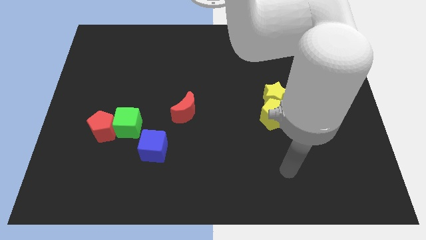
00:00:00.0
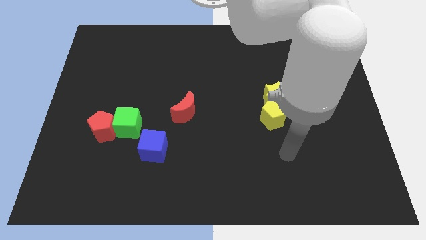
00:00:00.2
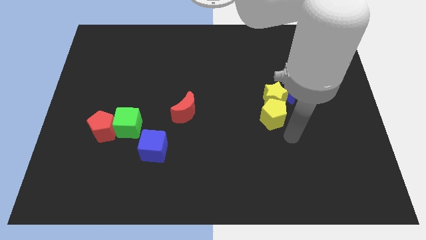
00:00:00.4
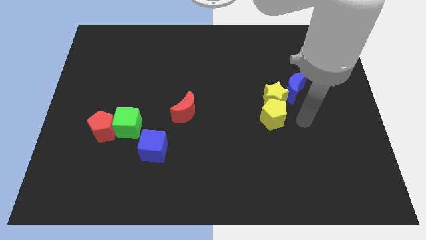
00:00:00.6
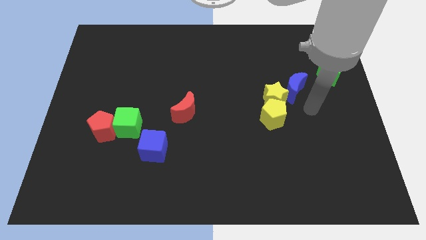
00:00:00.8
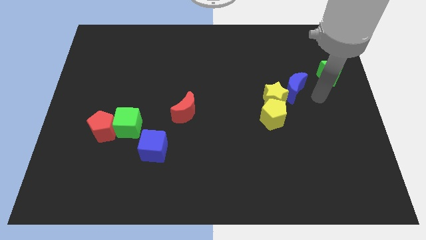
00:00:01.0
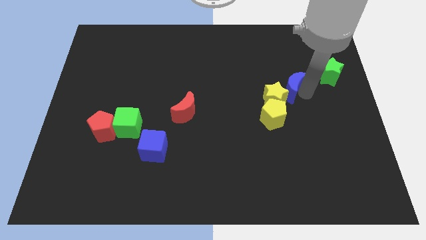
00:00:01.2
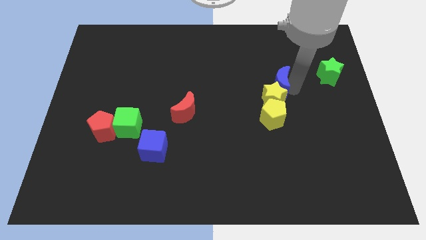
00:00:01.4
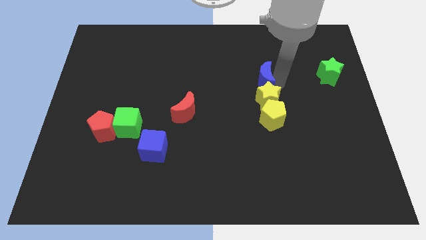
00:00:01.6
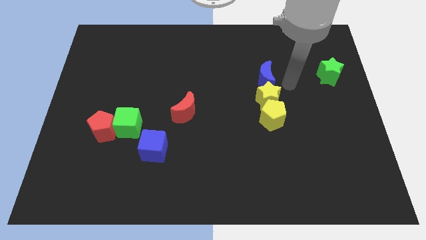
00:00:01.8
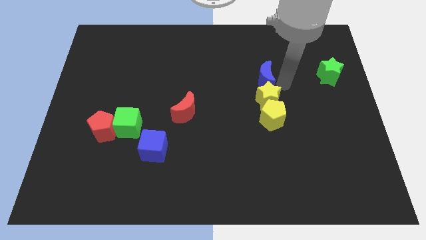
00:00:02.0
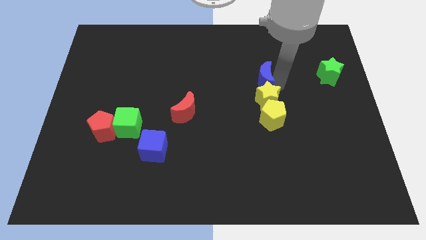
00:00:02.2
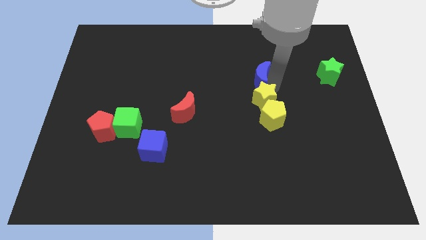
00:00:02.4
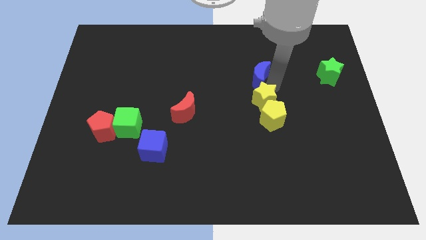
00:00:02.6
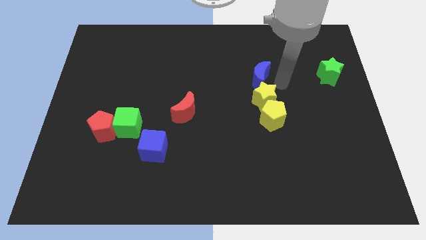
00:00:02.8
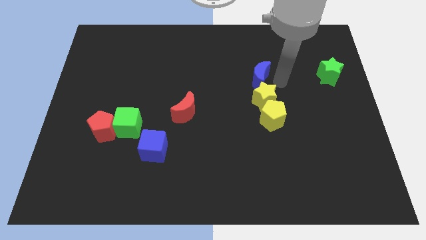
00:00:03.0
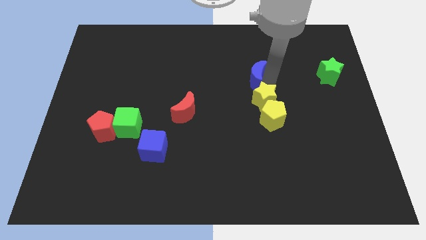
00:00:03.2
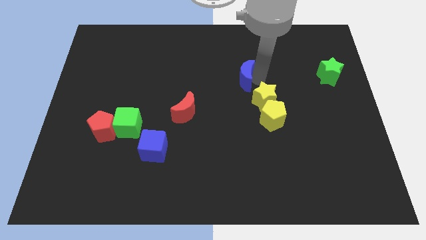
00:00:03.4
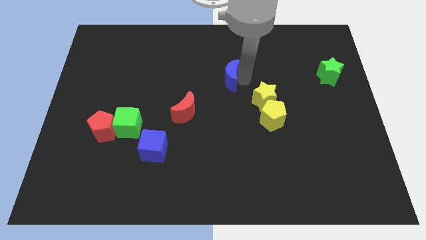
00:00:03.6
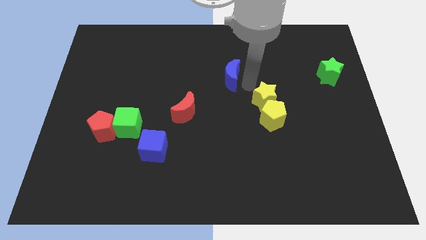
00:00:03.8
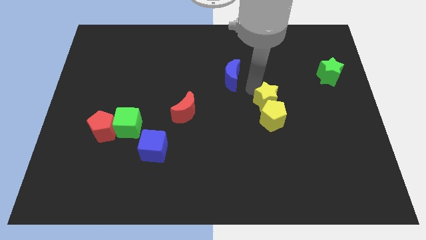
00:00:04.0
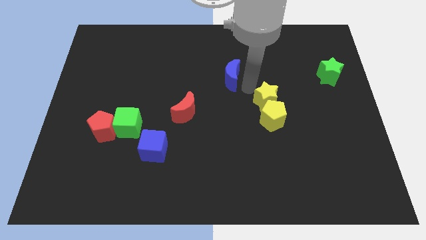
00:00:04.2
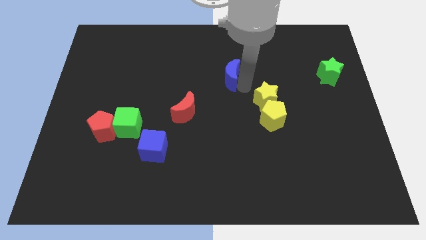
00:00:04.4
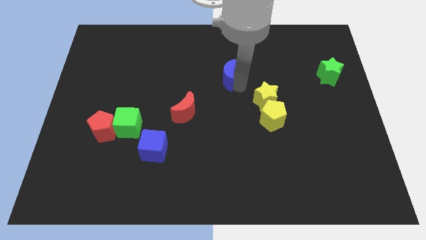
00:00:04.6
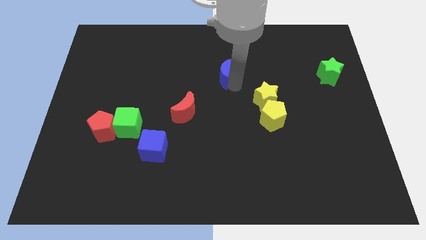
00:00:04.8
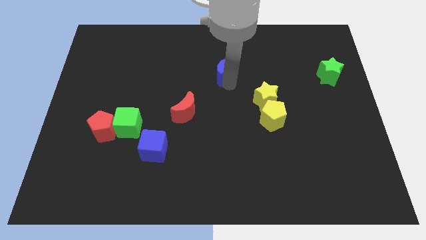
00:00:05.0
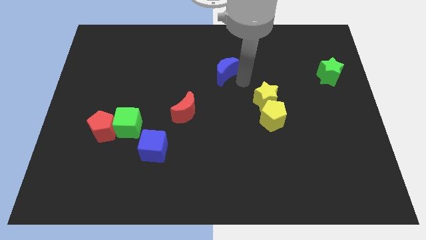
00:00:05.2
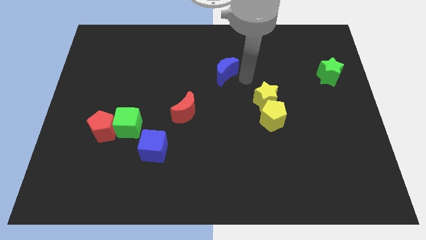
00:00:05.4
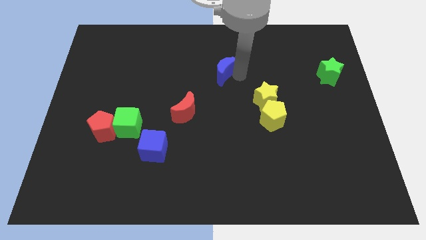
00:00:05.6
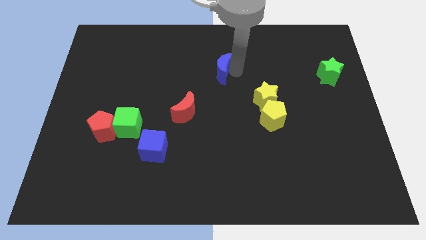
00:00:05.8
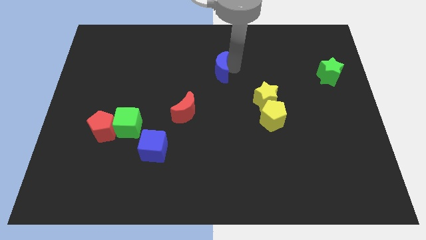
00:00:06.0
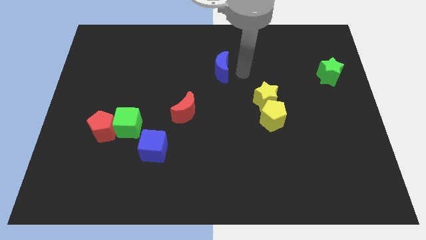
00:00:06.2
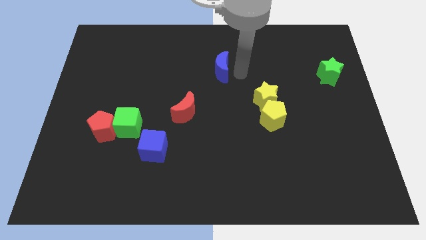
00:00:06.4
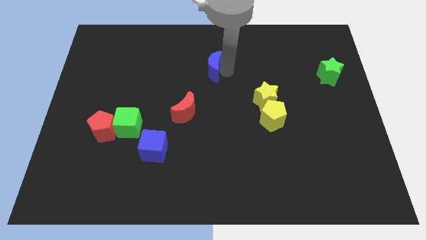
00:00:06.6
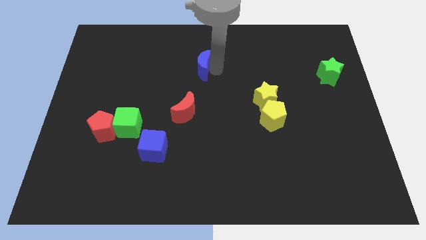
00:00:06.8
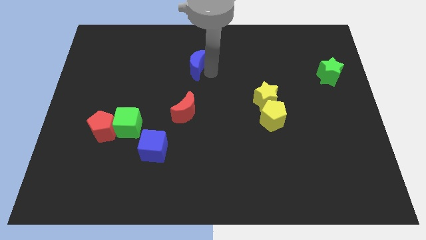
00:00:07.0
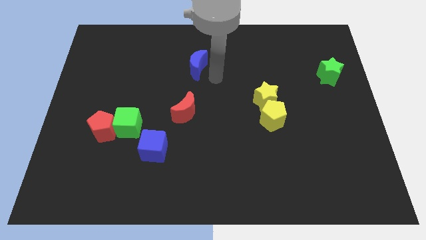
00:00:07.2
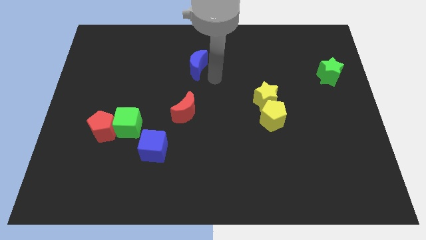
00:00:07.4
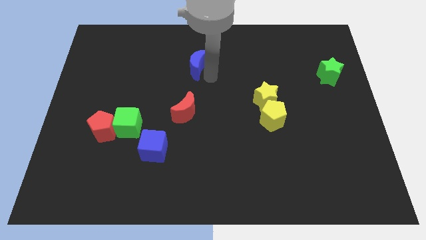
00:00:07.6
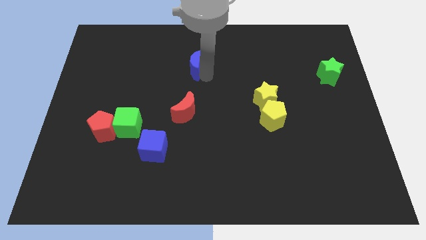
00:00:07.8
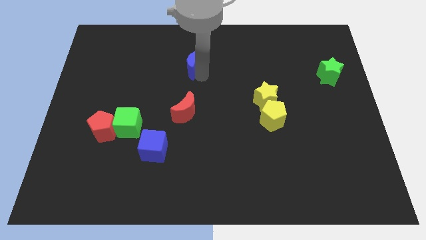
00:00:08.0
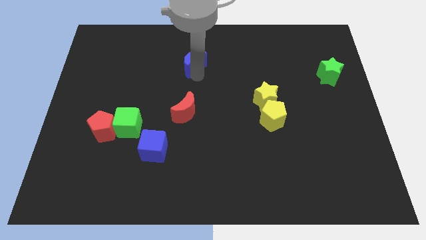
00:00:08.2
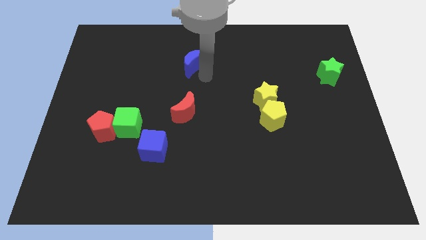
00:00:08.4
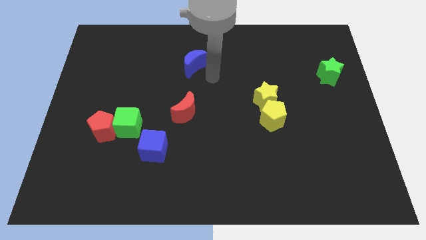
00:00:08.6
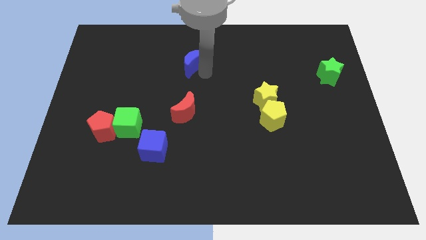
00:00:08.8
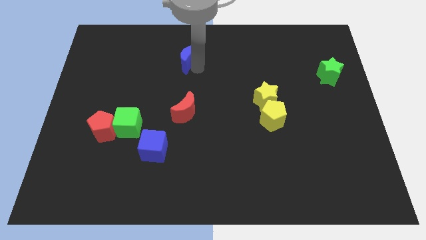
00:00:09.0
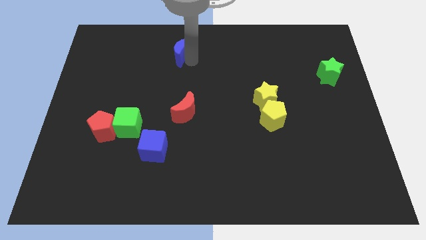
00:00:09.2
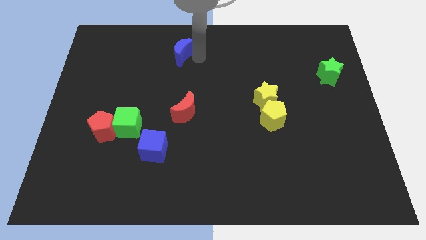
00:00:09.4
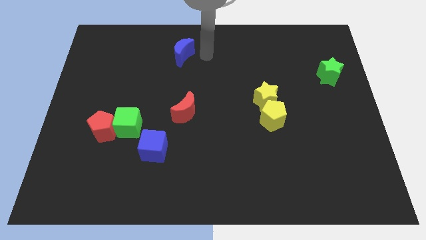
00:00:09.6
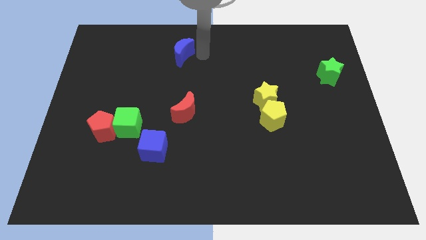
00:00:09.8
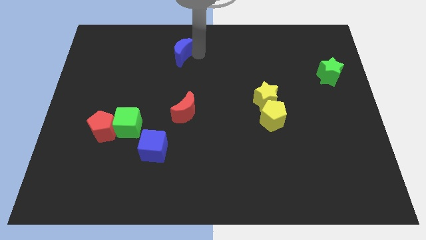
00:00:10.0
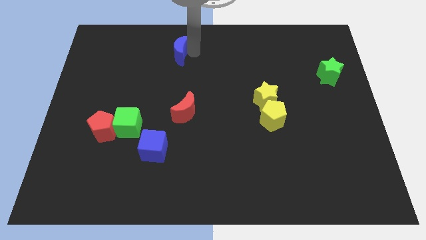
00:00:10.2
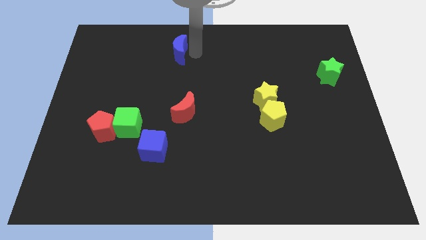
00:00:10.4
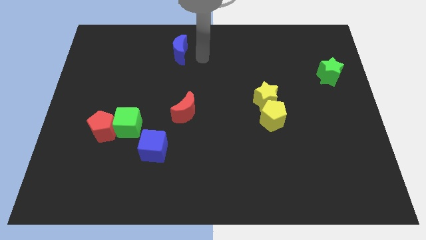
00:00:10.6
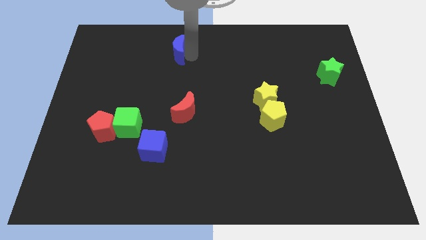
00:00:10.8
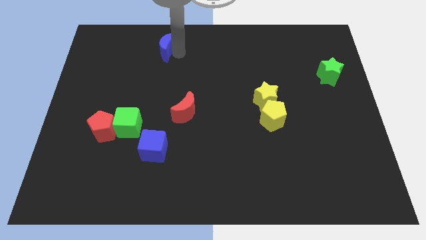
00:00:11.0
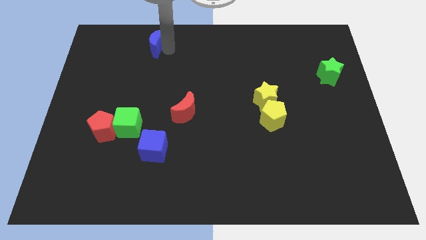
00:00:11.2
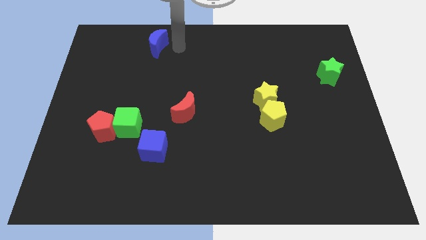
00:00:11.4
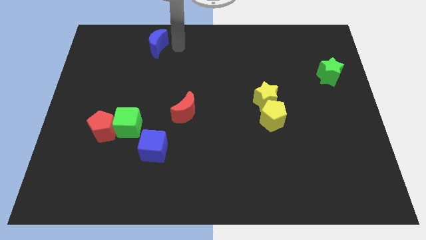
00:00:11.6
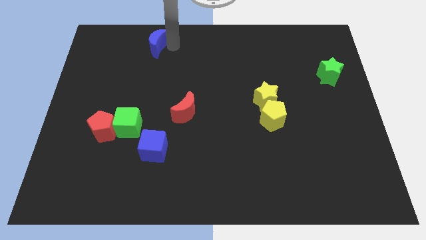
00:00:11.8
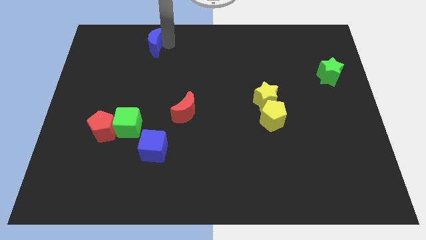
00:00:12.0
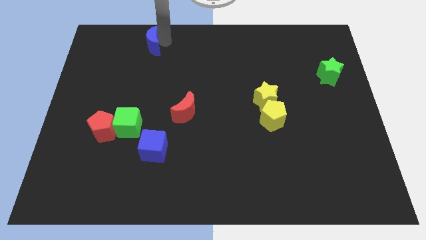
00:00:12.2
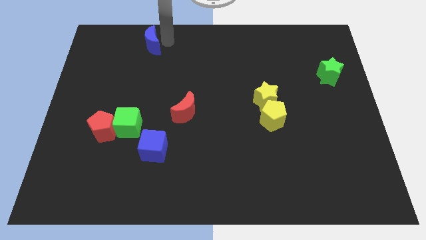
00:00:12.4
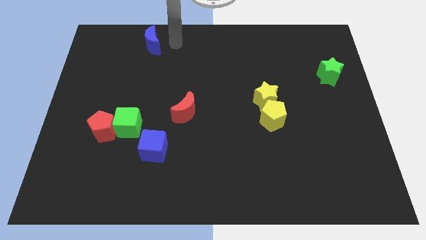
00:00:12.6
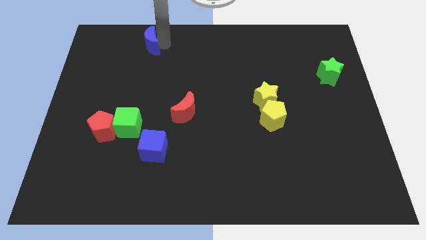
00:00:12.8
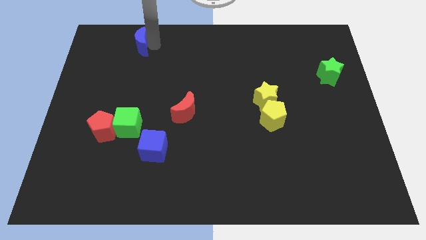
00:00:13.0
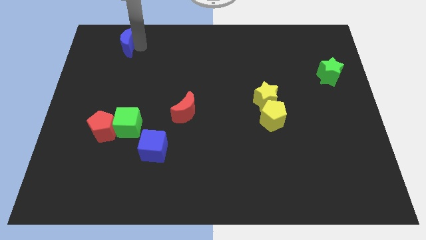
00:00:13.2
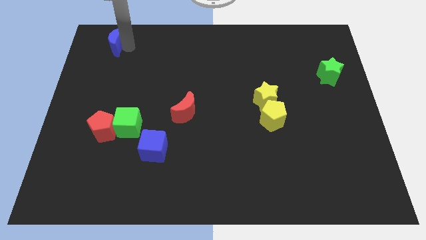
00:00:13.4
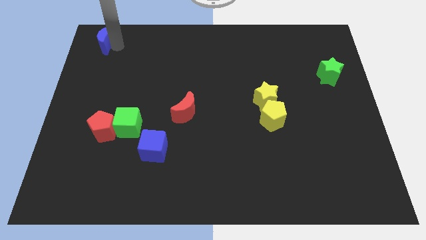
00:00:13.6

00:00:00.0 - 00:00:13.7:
put the blue moon to the upper left corner
